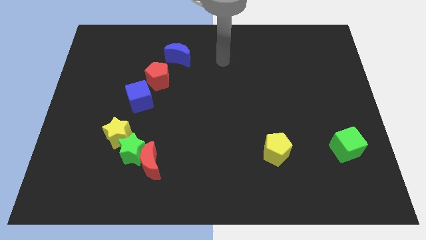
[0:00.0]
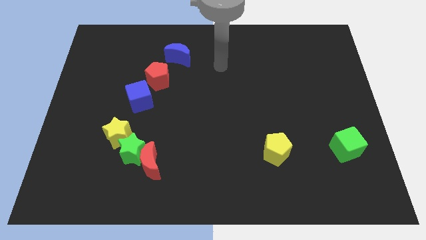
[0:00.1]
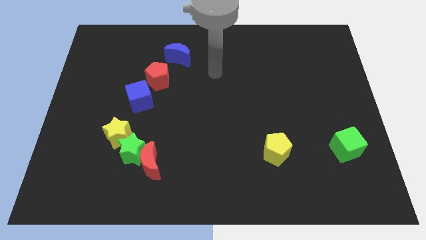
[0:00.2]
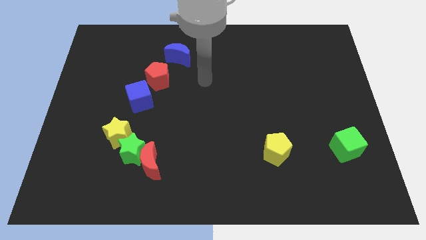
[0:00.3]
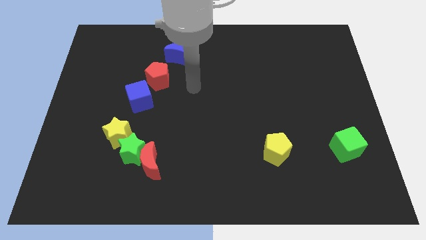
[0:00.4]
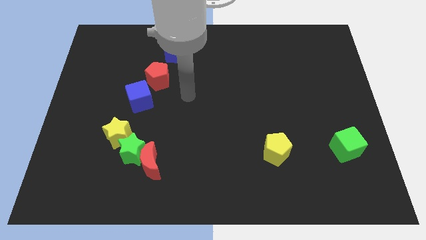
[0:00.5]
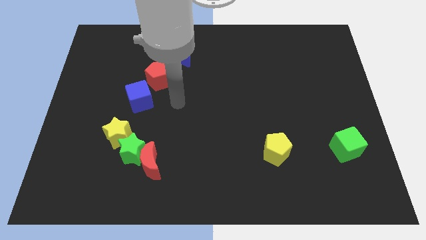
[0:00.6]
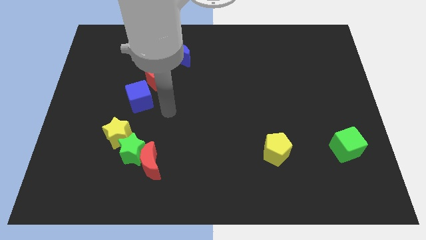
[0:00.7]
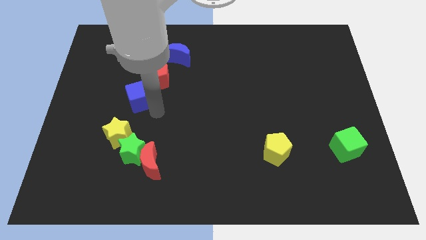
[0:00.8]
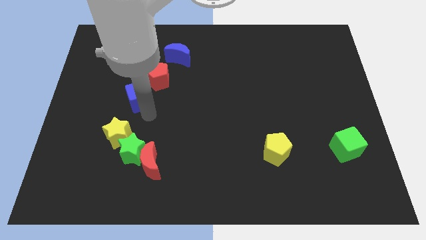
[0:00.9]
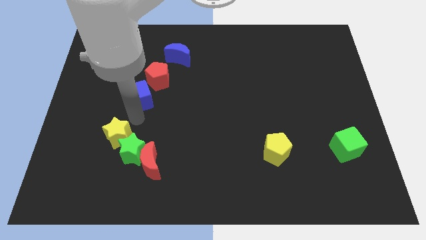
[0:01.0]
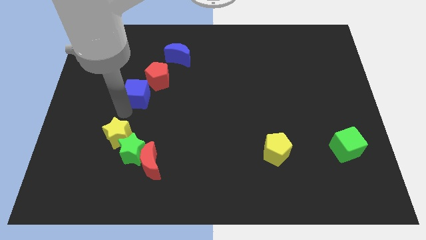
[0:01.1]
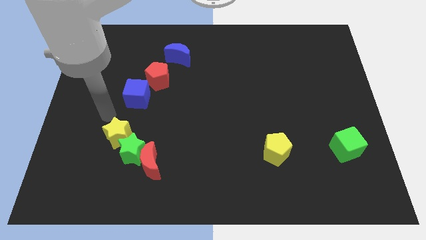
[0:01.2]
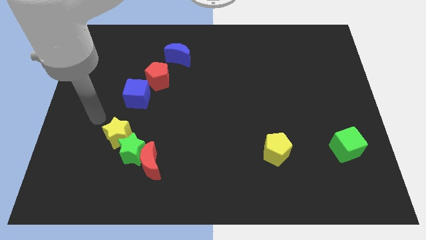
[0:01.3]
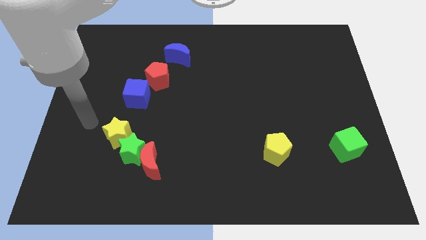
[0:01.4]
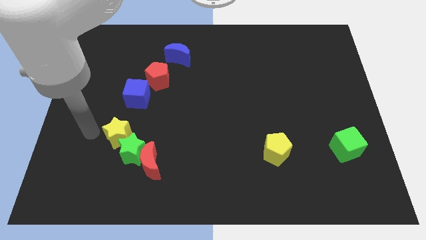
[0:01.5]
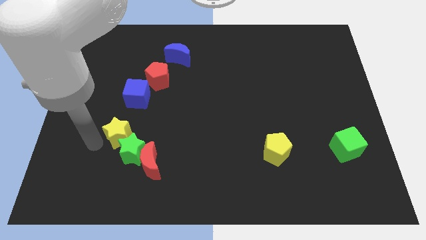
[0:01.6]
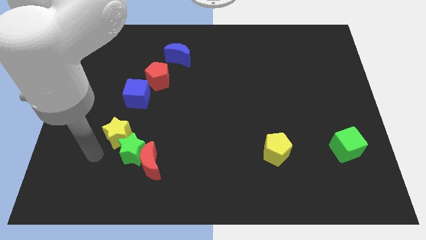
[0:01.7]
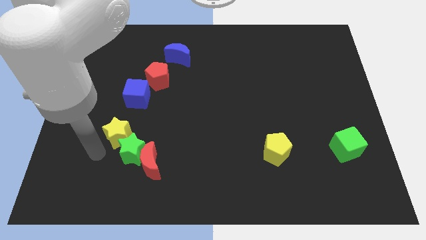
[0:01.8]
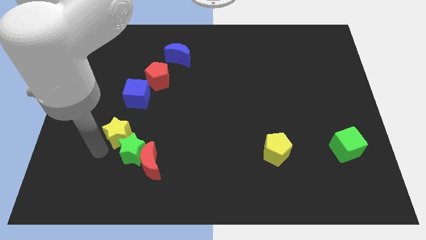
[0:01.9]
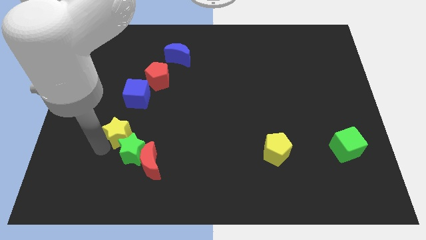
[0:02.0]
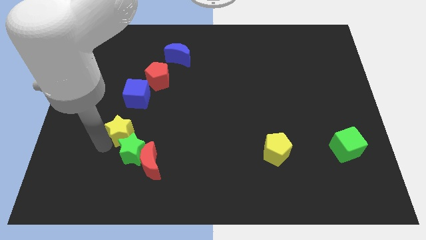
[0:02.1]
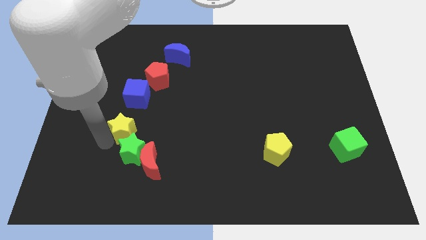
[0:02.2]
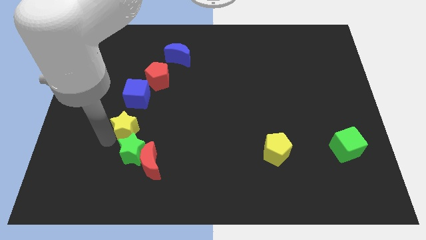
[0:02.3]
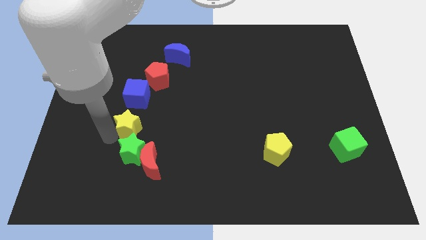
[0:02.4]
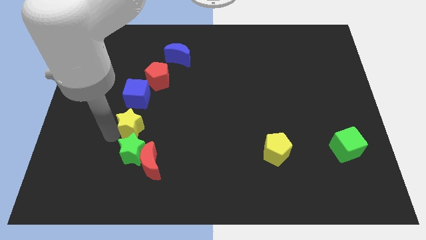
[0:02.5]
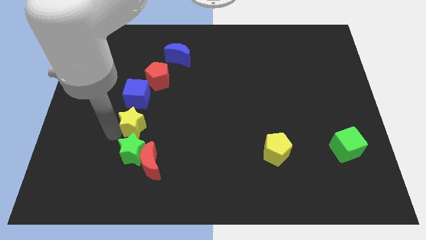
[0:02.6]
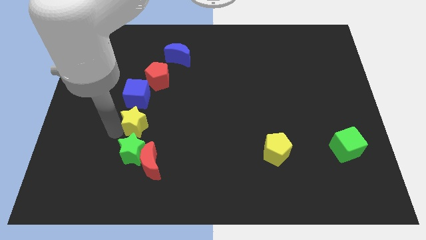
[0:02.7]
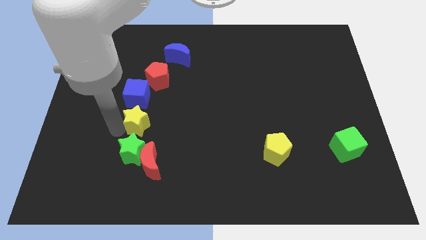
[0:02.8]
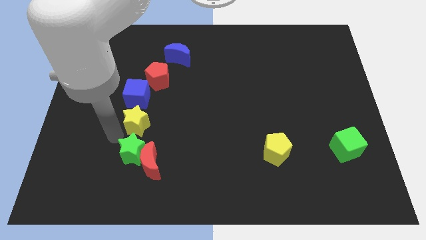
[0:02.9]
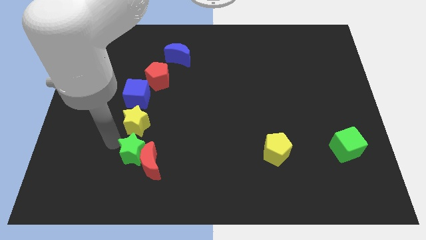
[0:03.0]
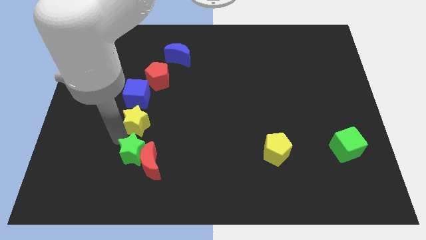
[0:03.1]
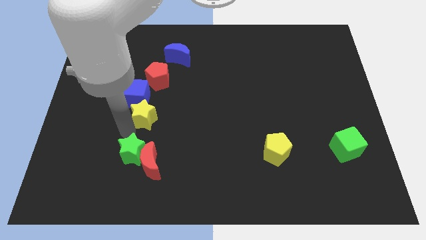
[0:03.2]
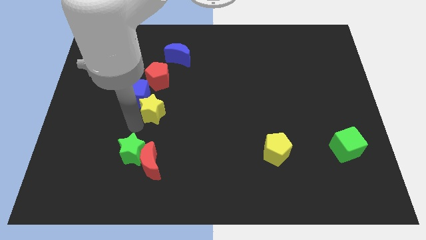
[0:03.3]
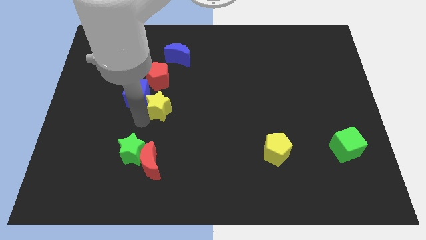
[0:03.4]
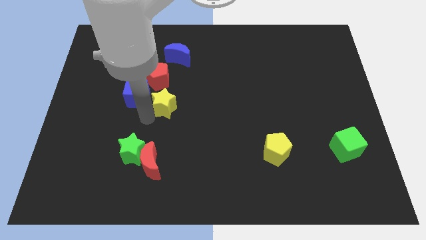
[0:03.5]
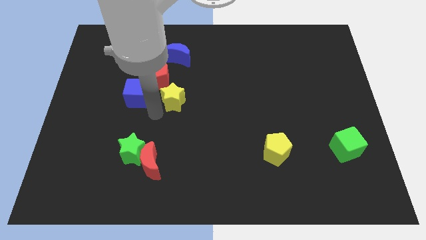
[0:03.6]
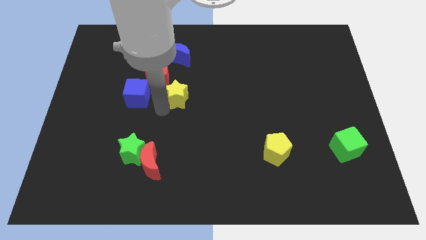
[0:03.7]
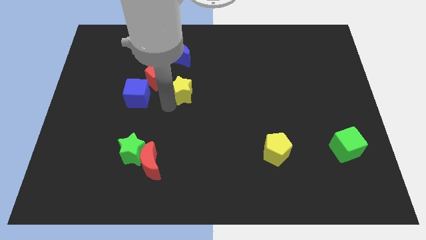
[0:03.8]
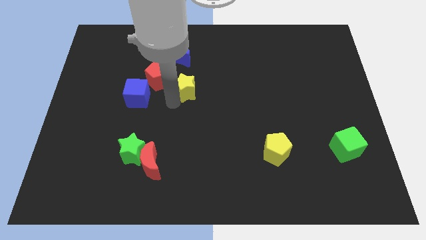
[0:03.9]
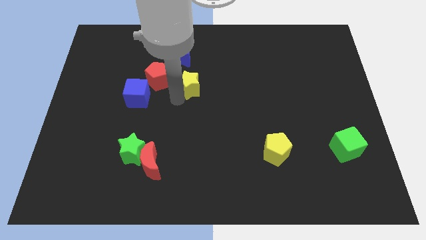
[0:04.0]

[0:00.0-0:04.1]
push the yellow star up and to the right diagonally

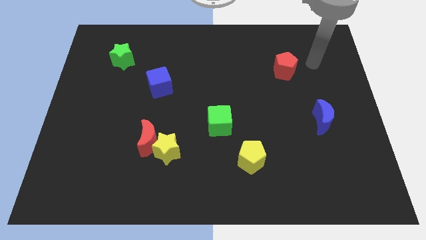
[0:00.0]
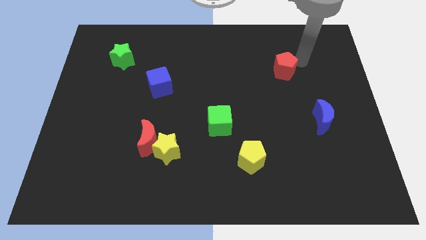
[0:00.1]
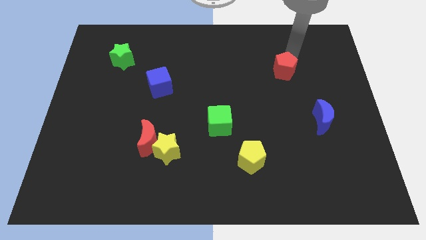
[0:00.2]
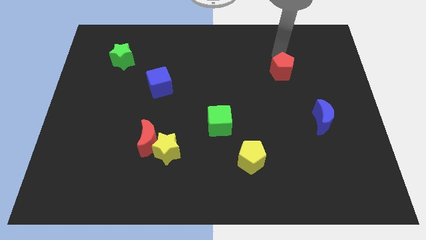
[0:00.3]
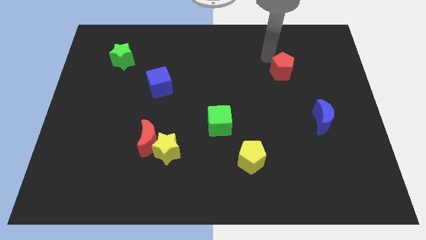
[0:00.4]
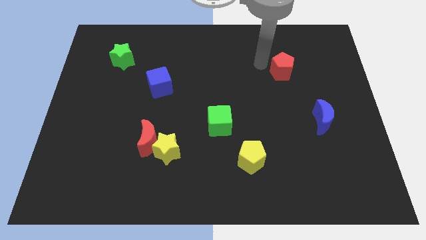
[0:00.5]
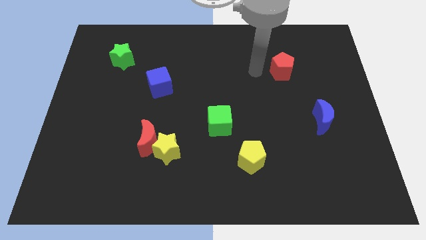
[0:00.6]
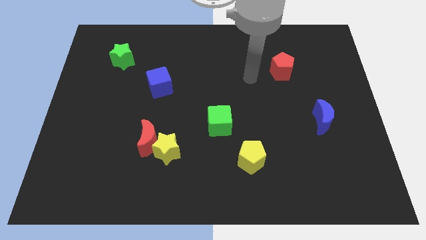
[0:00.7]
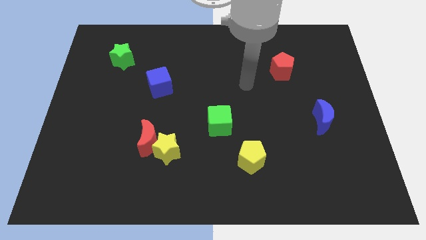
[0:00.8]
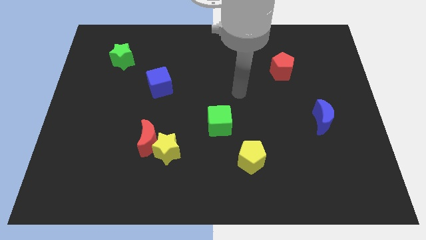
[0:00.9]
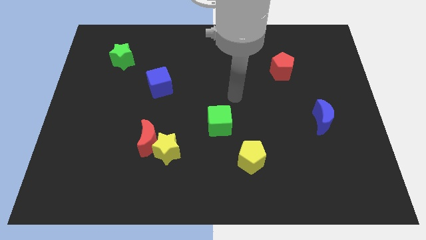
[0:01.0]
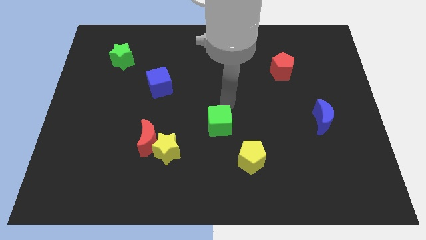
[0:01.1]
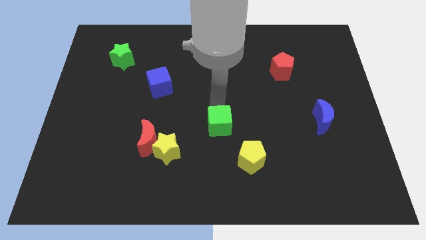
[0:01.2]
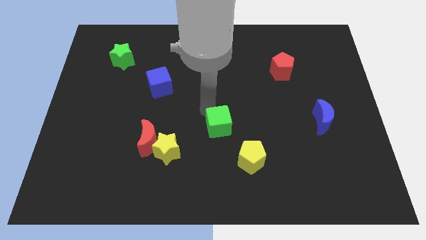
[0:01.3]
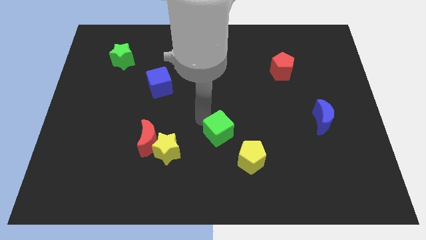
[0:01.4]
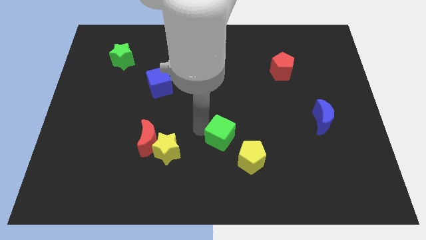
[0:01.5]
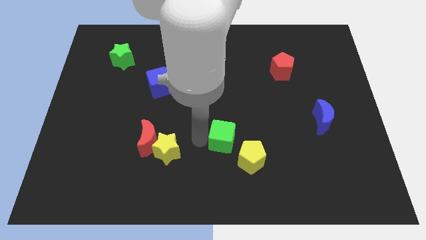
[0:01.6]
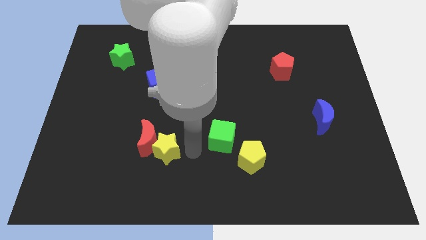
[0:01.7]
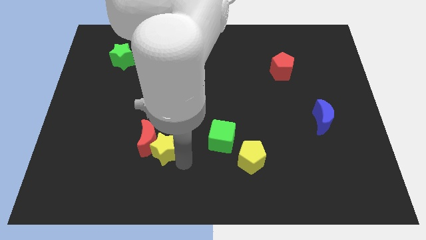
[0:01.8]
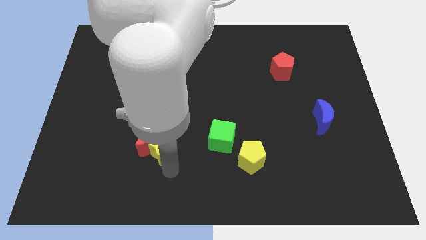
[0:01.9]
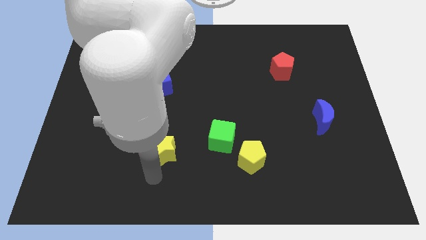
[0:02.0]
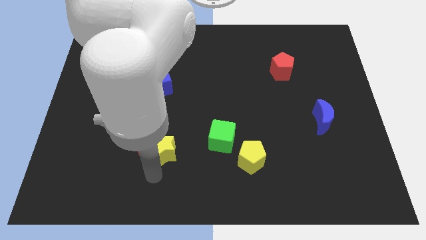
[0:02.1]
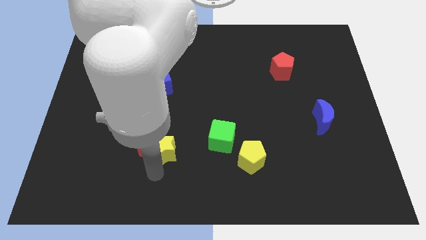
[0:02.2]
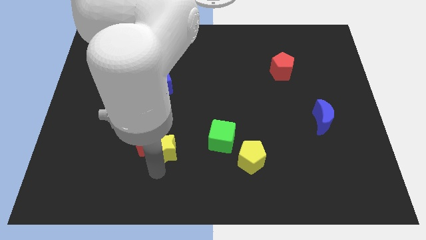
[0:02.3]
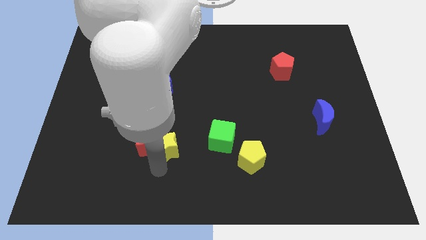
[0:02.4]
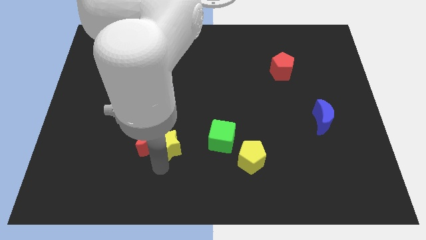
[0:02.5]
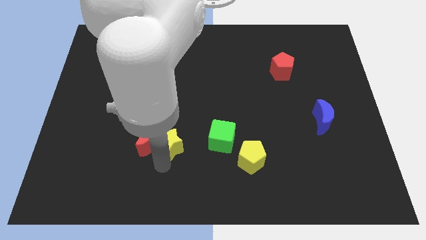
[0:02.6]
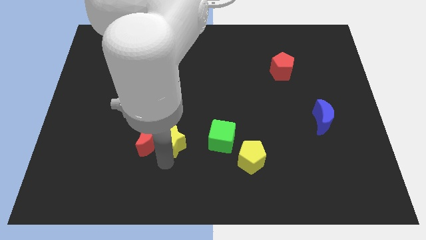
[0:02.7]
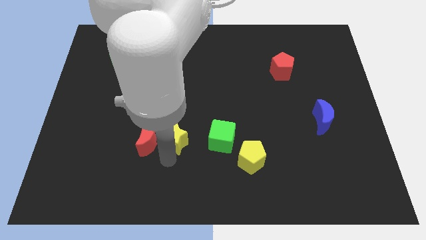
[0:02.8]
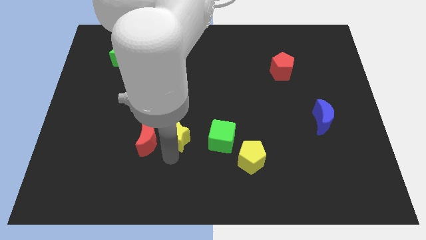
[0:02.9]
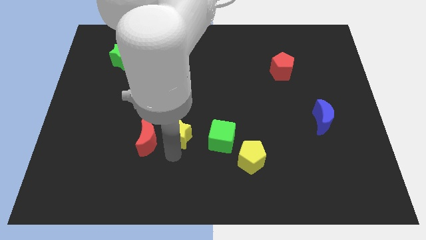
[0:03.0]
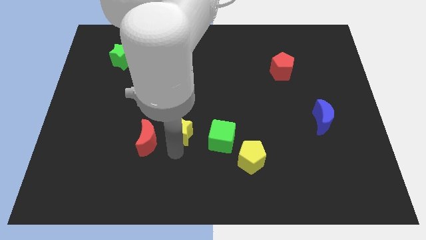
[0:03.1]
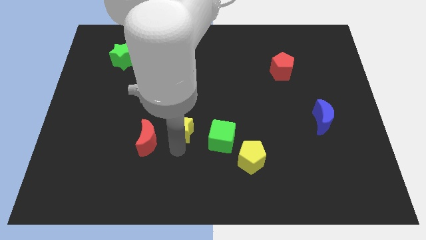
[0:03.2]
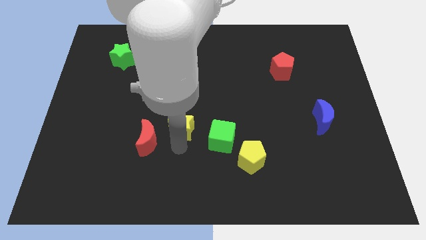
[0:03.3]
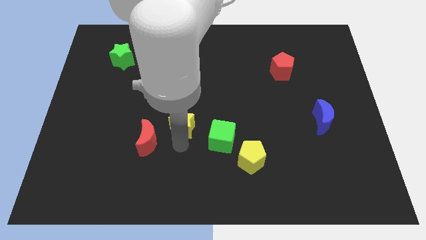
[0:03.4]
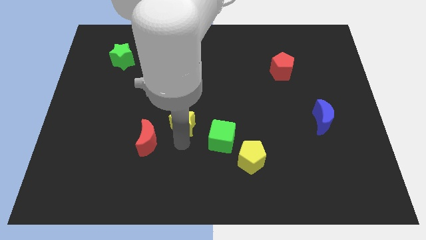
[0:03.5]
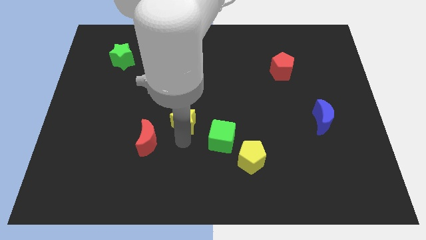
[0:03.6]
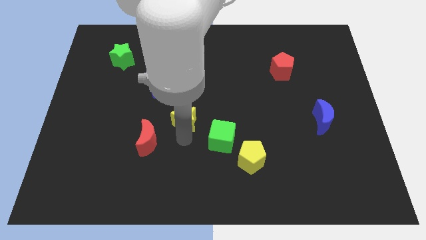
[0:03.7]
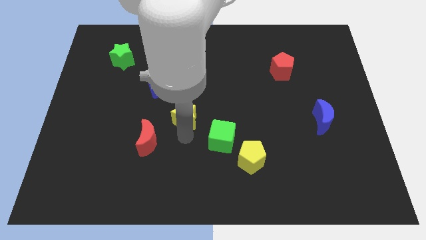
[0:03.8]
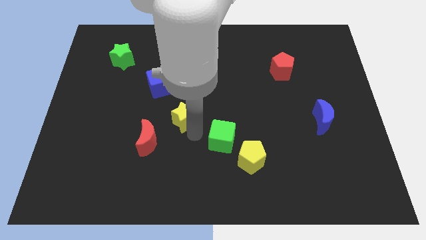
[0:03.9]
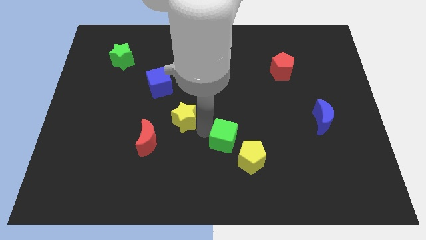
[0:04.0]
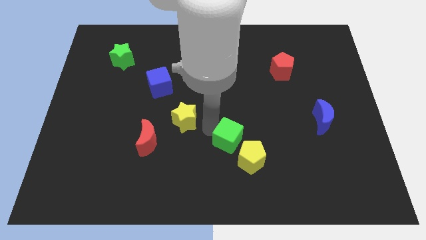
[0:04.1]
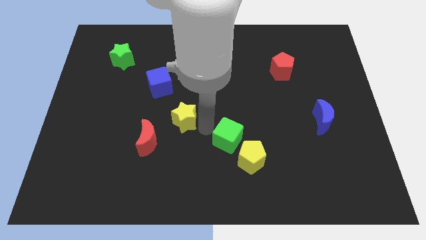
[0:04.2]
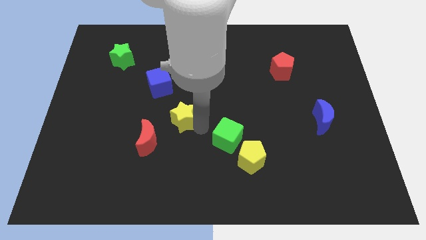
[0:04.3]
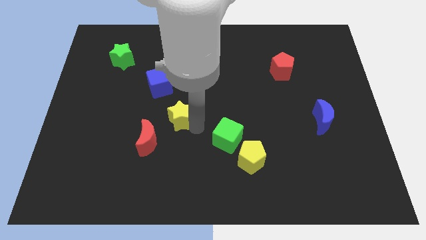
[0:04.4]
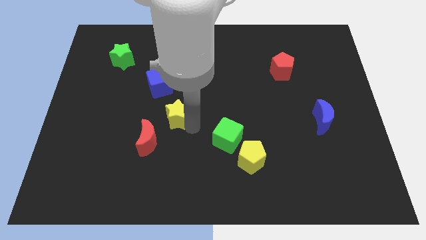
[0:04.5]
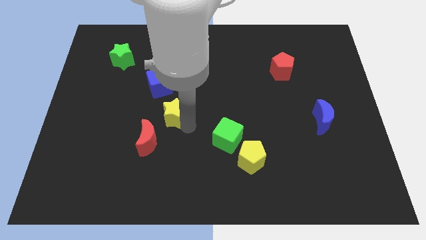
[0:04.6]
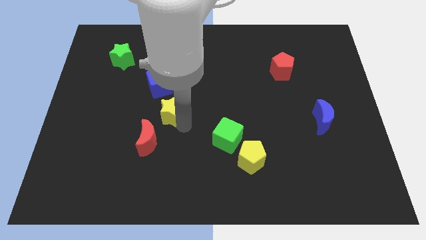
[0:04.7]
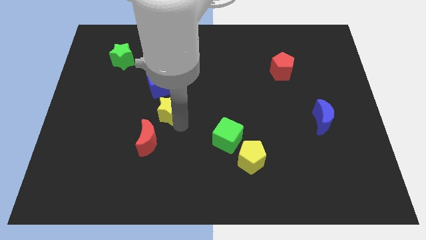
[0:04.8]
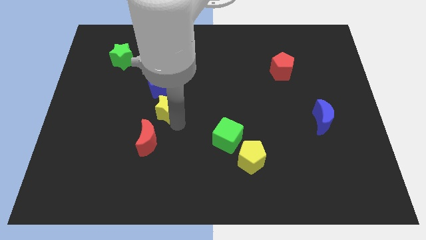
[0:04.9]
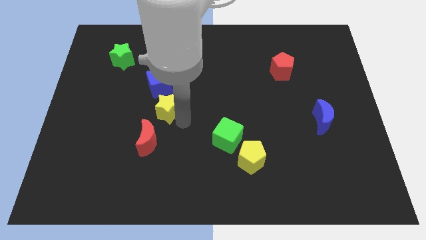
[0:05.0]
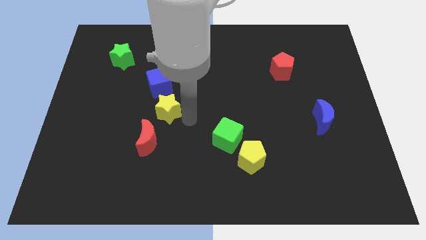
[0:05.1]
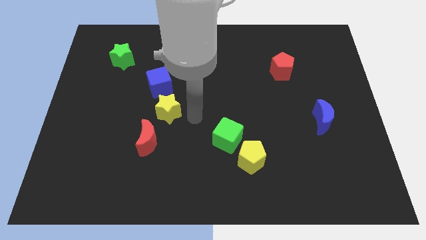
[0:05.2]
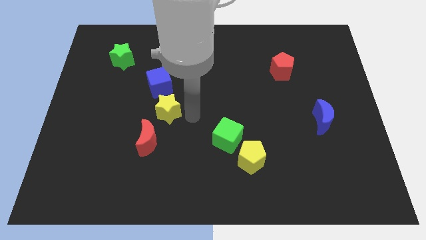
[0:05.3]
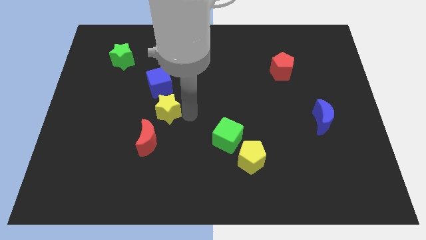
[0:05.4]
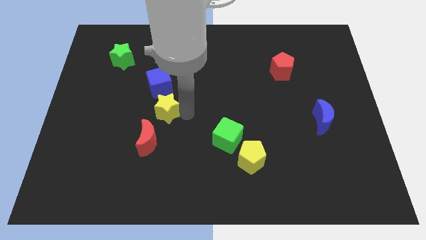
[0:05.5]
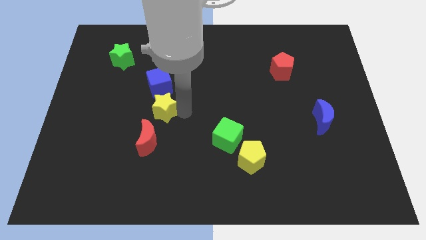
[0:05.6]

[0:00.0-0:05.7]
slightly push the yellow star upwards and left diagonally
